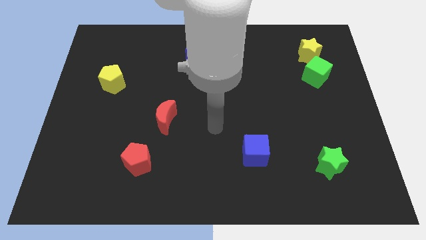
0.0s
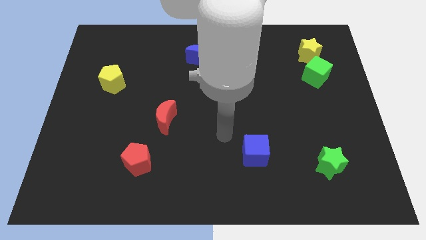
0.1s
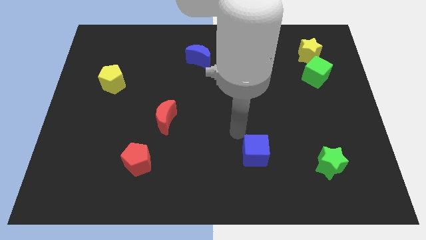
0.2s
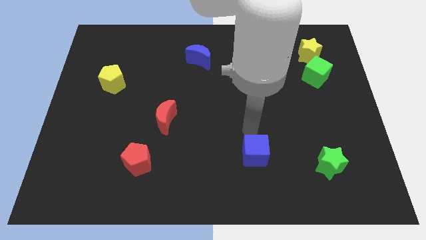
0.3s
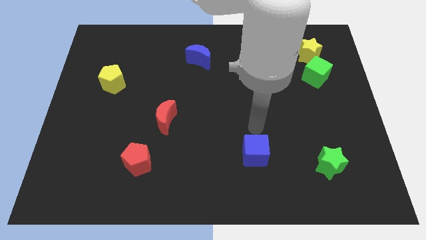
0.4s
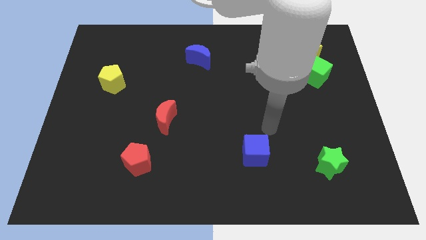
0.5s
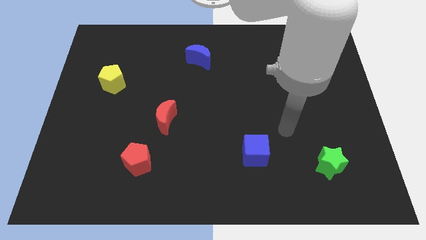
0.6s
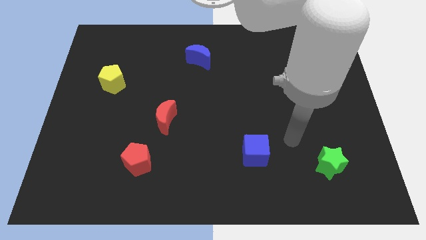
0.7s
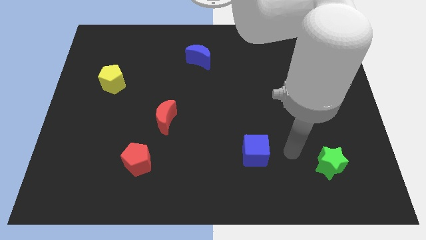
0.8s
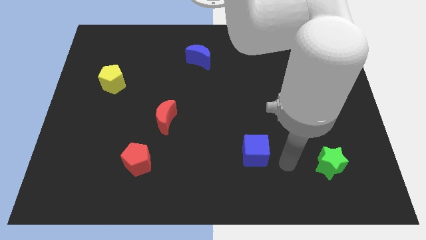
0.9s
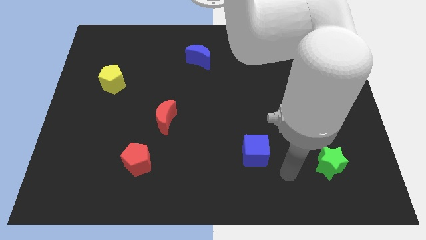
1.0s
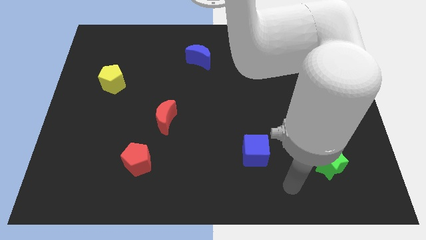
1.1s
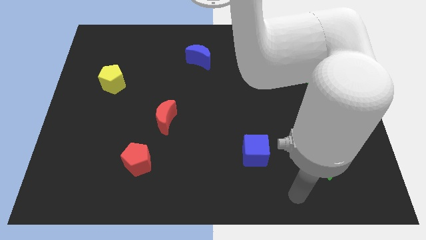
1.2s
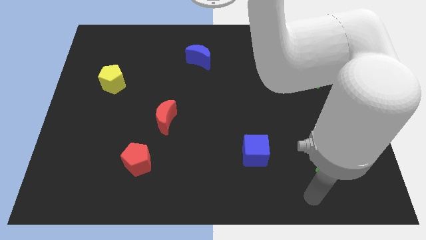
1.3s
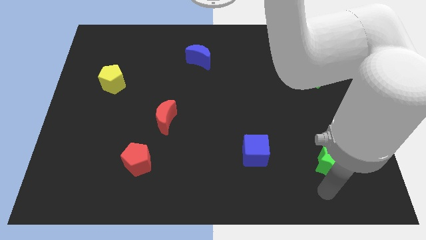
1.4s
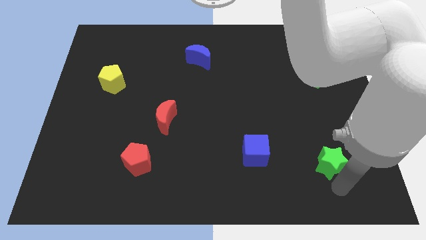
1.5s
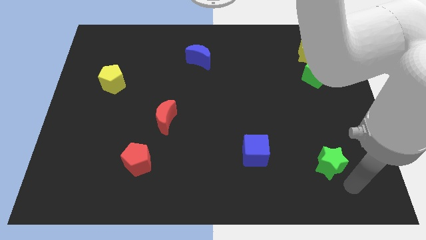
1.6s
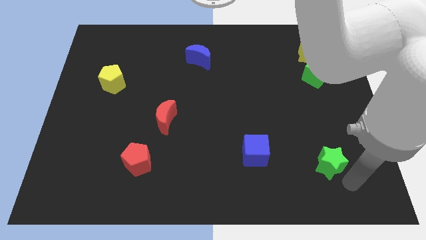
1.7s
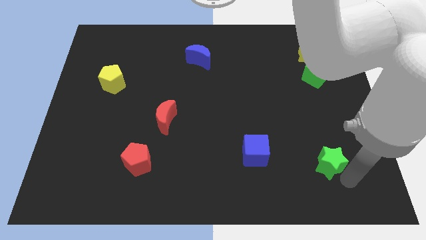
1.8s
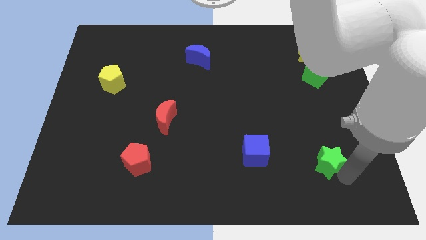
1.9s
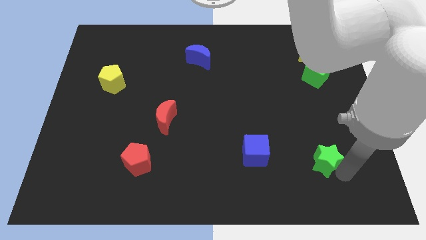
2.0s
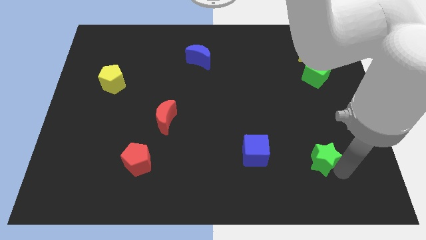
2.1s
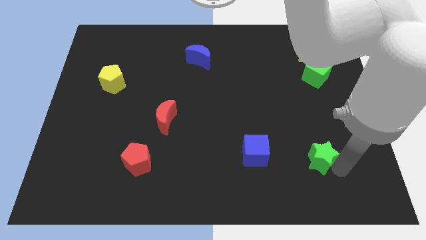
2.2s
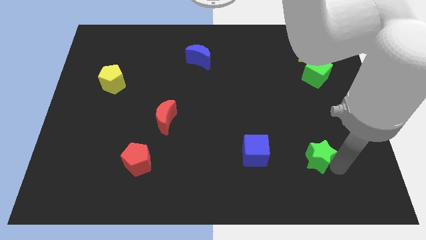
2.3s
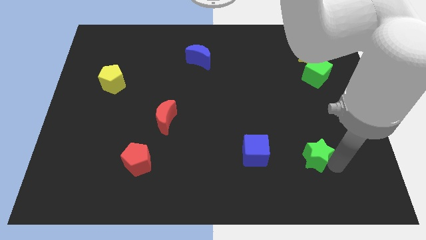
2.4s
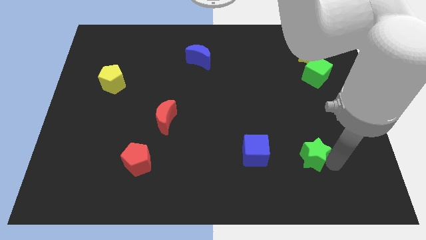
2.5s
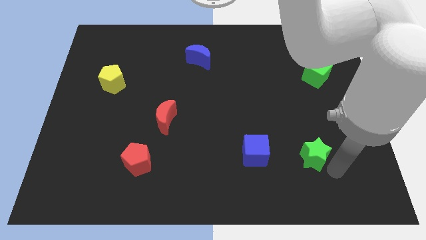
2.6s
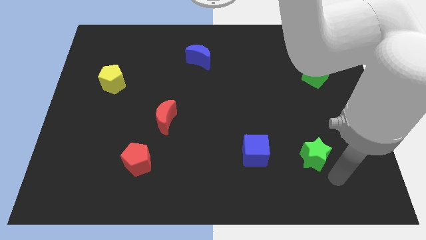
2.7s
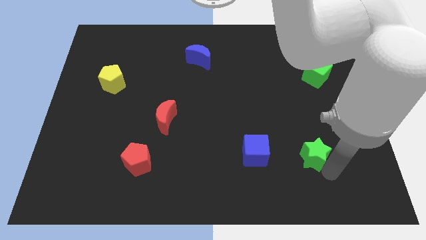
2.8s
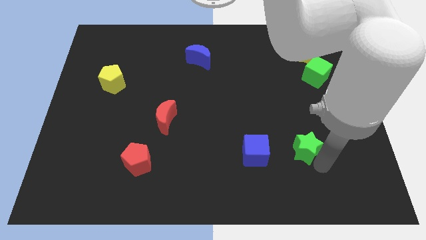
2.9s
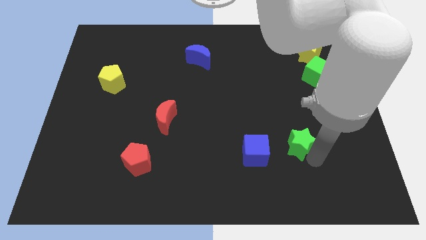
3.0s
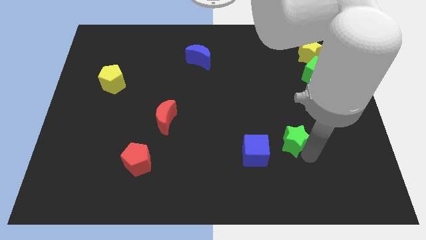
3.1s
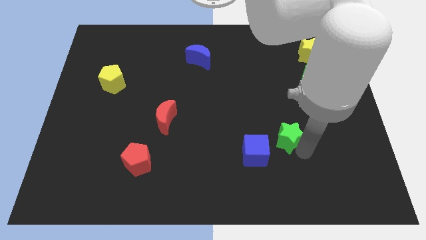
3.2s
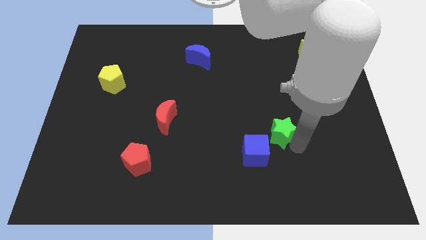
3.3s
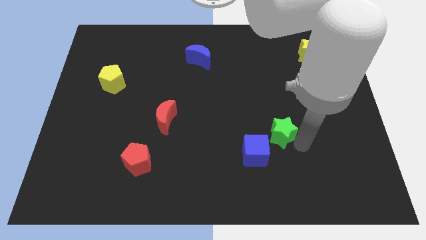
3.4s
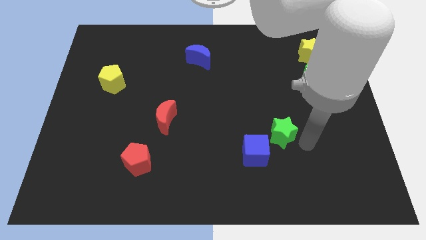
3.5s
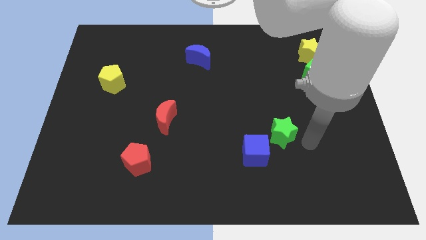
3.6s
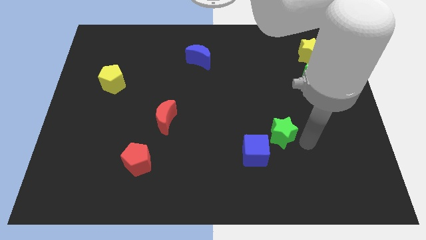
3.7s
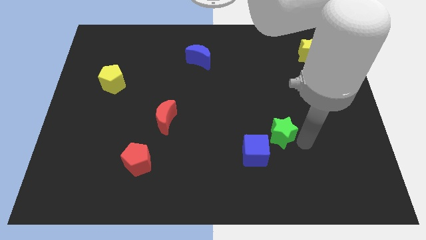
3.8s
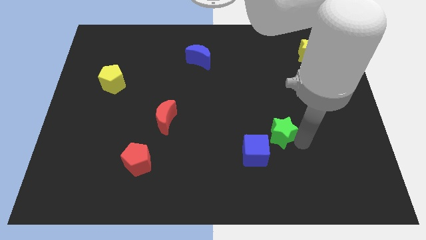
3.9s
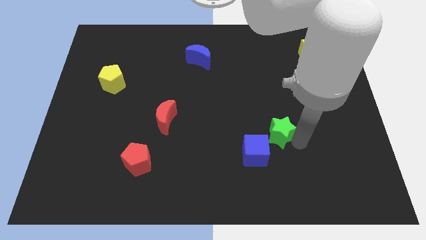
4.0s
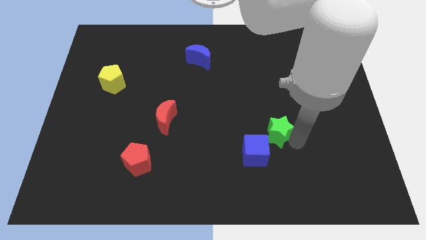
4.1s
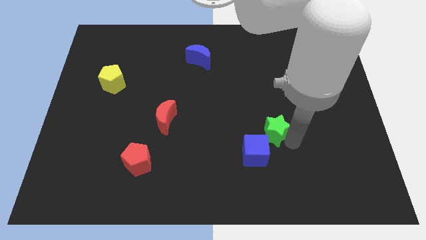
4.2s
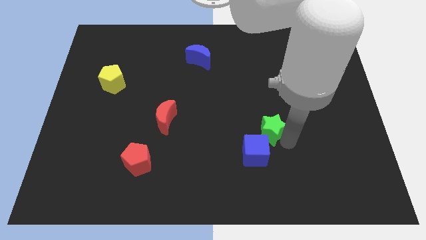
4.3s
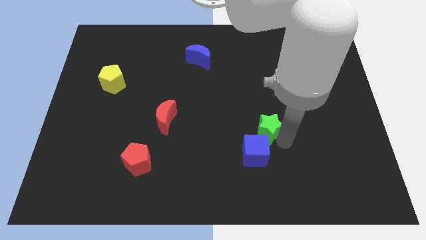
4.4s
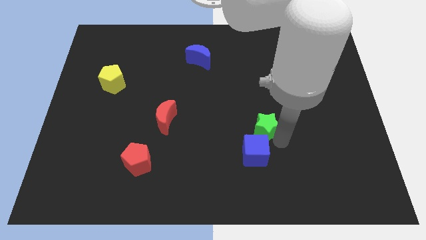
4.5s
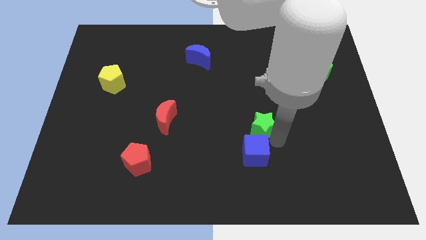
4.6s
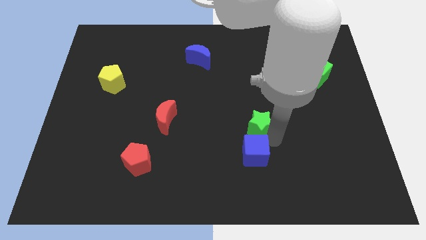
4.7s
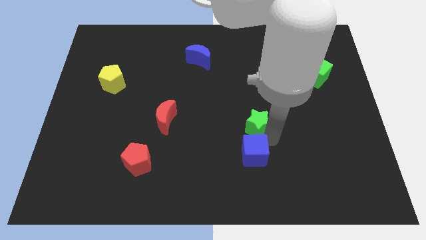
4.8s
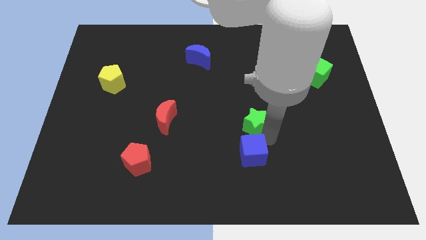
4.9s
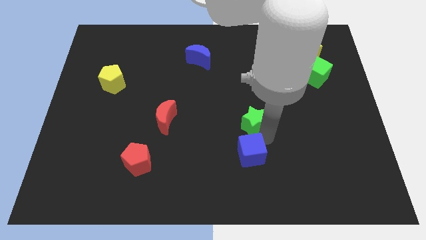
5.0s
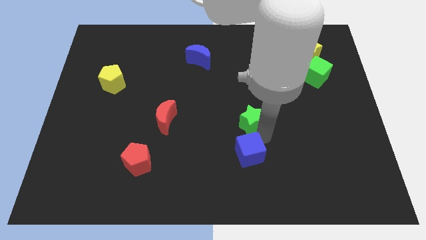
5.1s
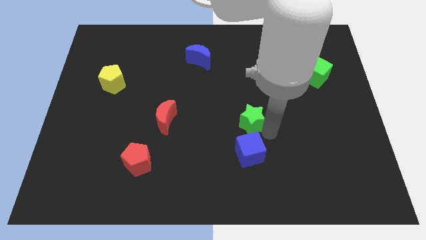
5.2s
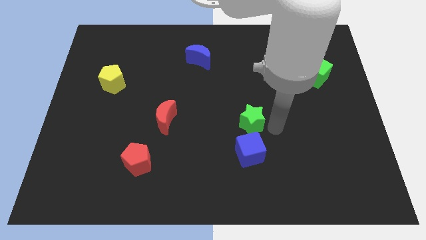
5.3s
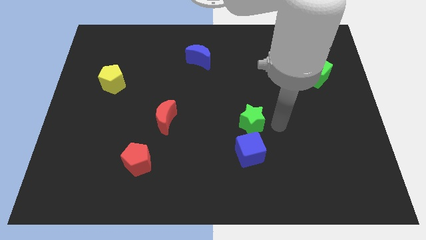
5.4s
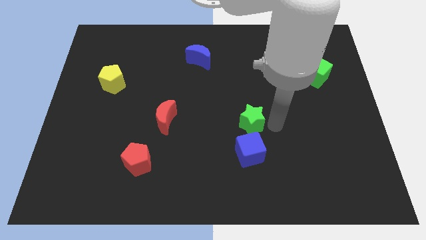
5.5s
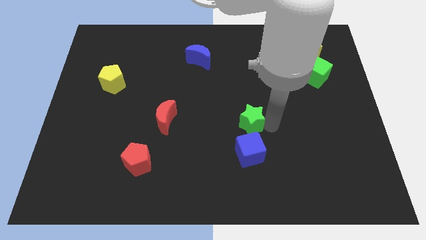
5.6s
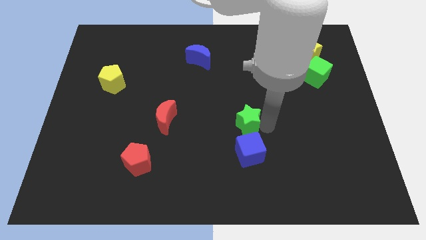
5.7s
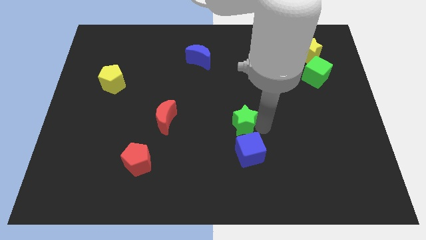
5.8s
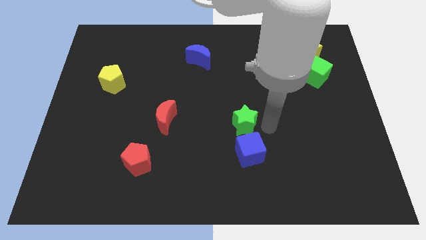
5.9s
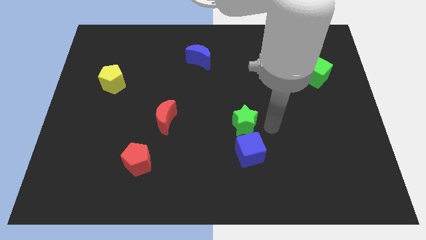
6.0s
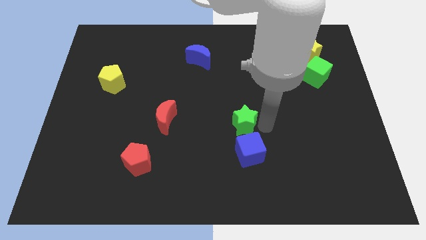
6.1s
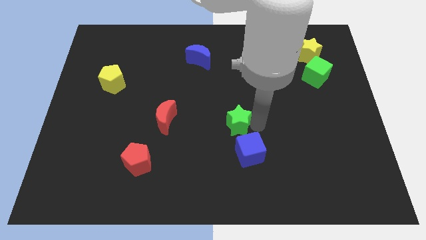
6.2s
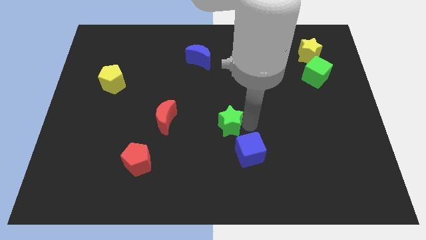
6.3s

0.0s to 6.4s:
put the green star to the right of the red moon
